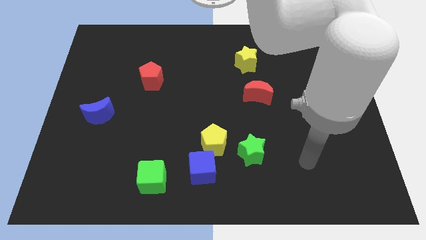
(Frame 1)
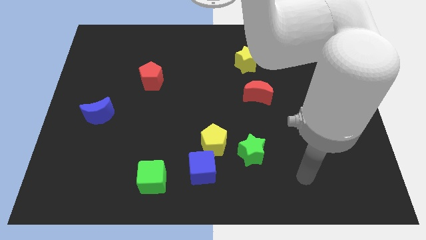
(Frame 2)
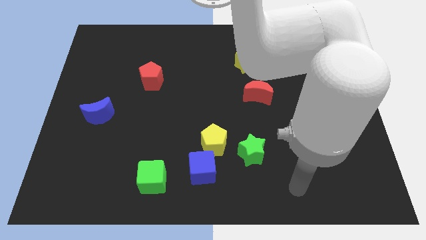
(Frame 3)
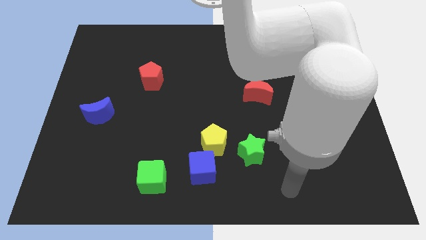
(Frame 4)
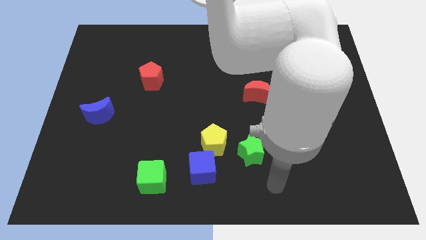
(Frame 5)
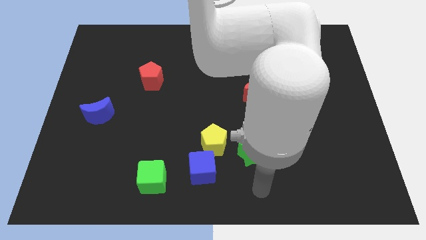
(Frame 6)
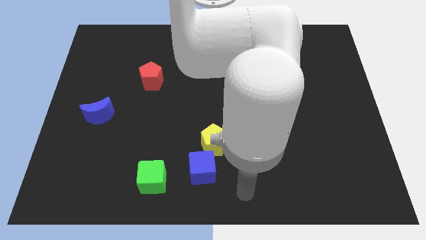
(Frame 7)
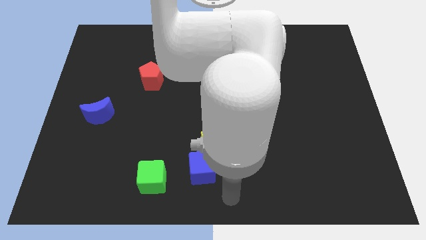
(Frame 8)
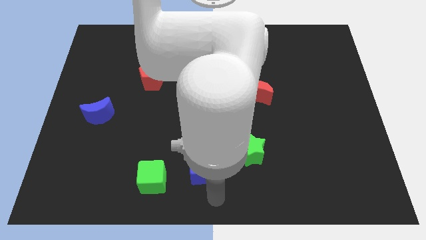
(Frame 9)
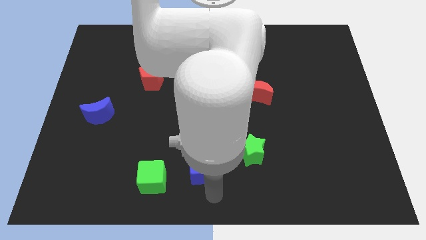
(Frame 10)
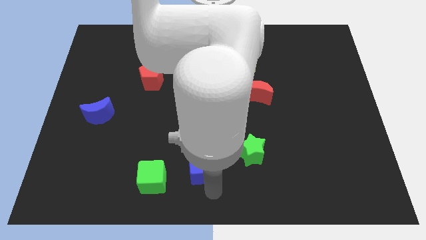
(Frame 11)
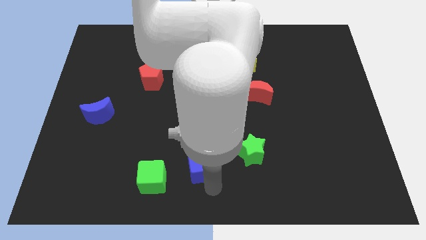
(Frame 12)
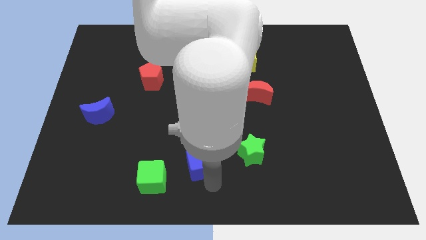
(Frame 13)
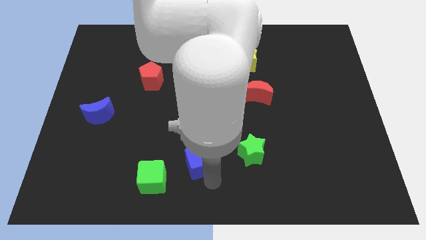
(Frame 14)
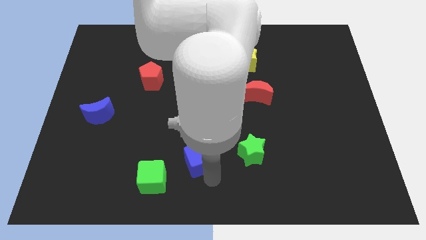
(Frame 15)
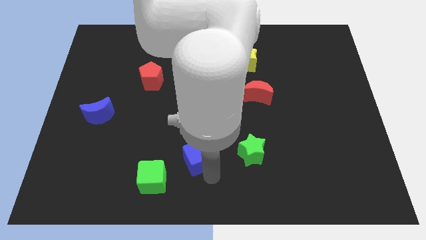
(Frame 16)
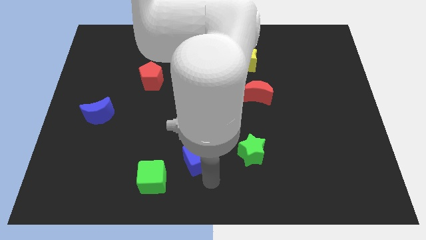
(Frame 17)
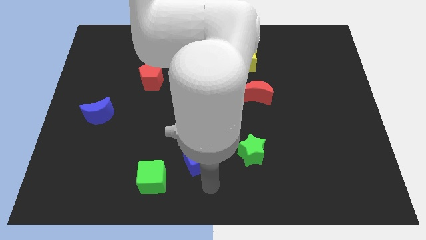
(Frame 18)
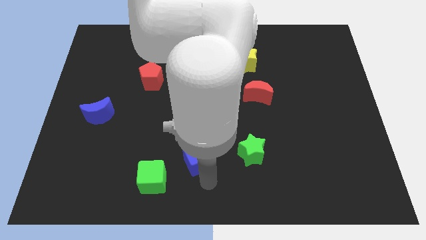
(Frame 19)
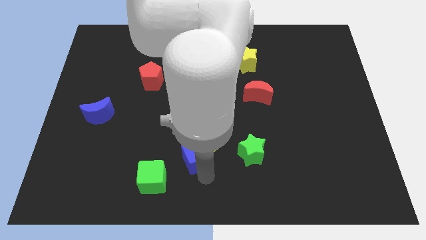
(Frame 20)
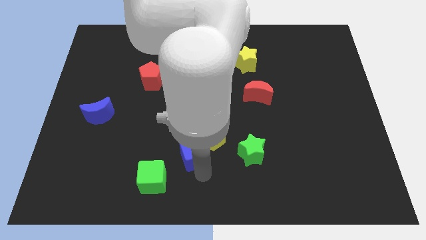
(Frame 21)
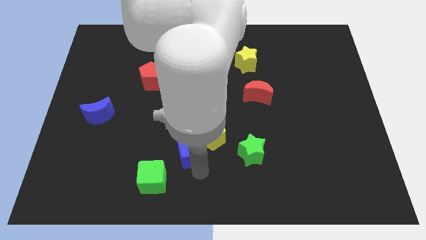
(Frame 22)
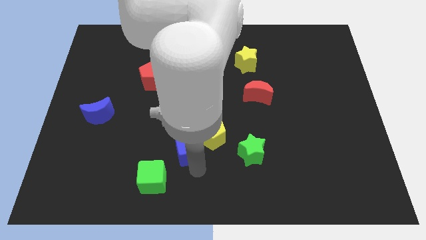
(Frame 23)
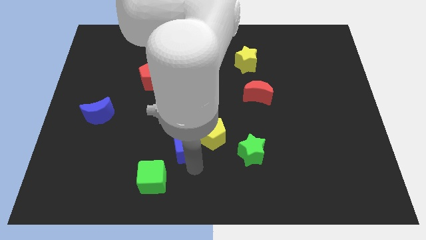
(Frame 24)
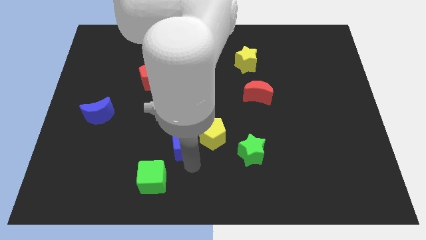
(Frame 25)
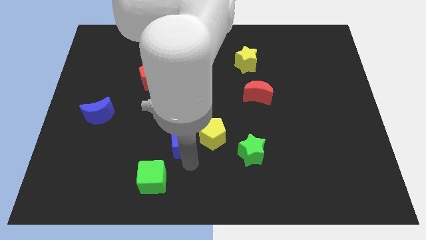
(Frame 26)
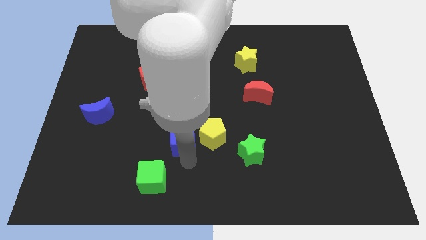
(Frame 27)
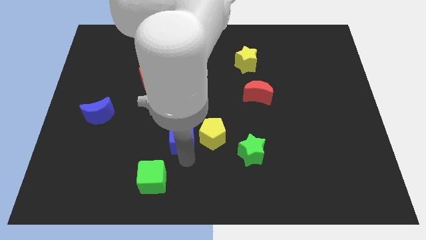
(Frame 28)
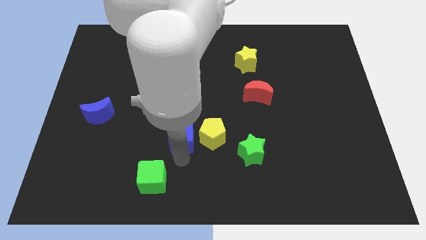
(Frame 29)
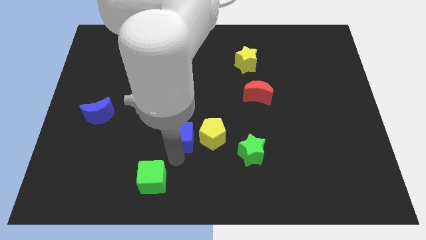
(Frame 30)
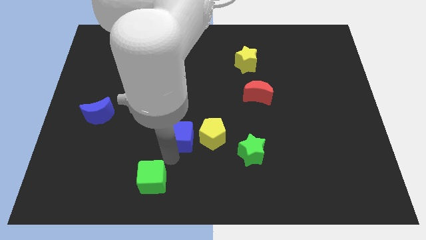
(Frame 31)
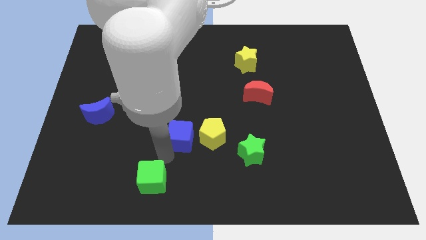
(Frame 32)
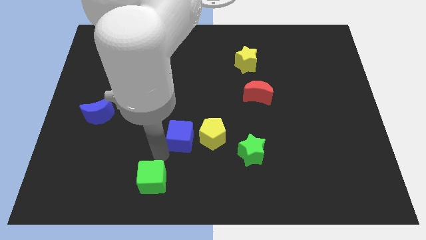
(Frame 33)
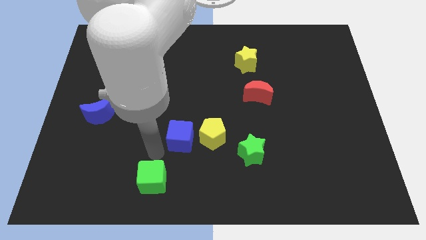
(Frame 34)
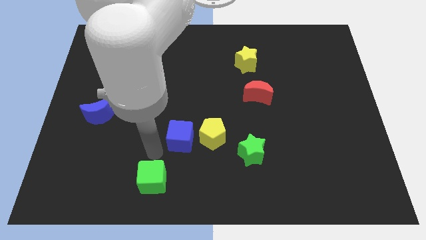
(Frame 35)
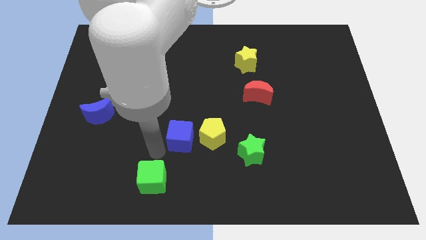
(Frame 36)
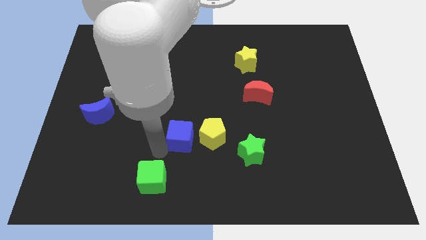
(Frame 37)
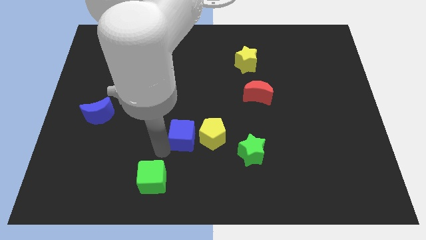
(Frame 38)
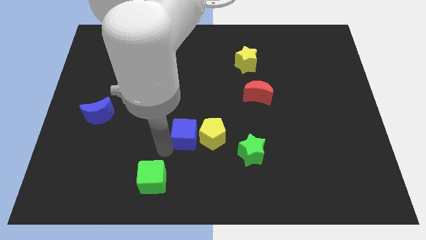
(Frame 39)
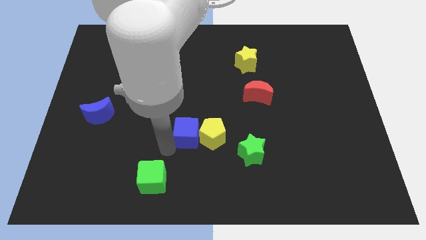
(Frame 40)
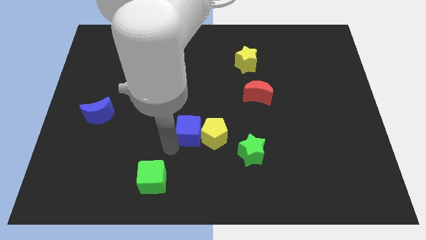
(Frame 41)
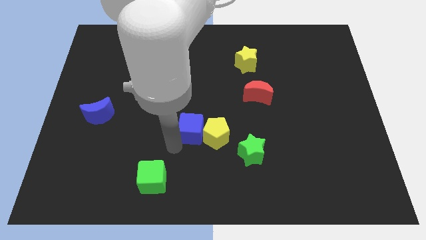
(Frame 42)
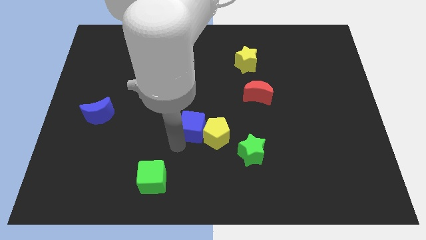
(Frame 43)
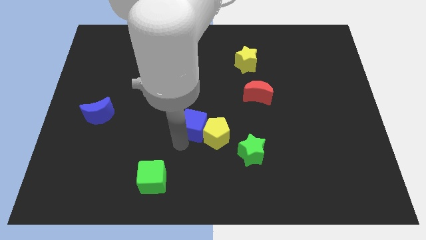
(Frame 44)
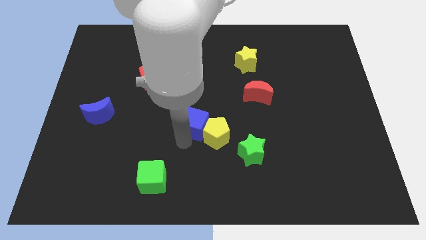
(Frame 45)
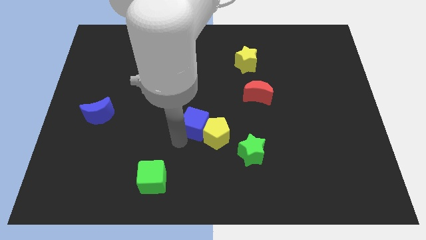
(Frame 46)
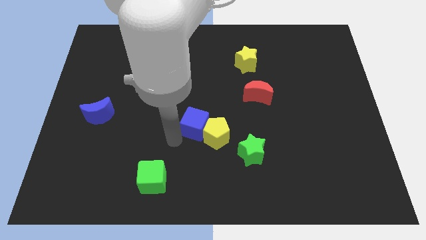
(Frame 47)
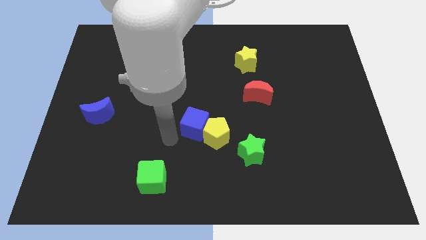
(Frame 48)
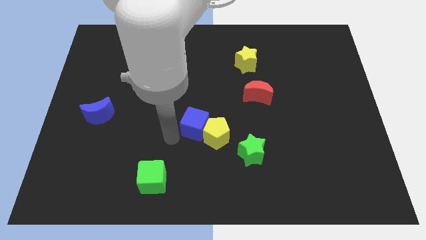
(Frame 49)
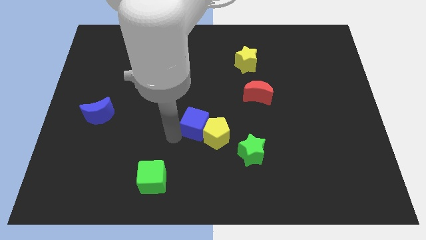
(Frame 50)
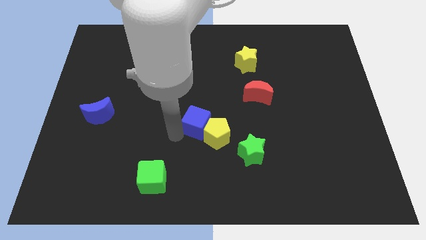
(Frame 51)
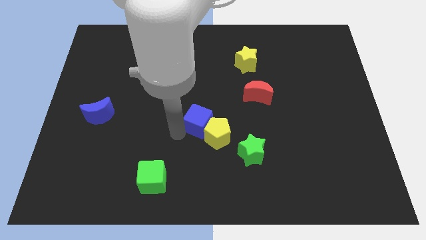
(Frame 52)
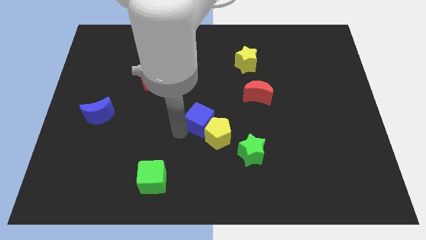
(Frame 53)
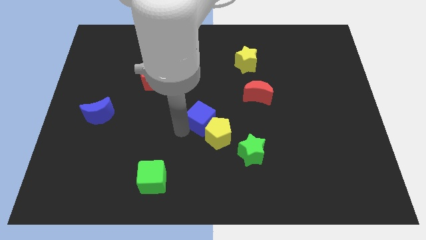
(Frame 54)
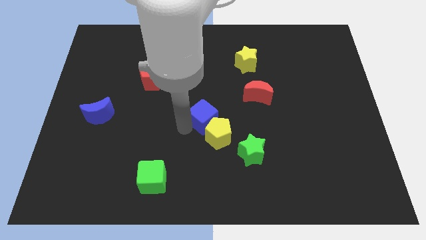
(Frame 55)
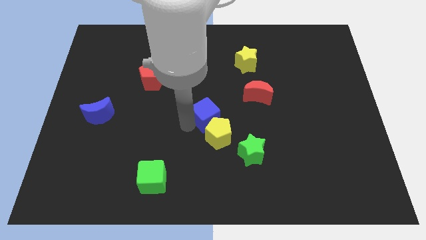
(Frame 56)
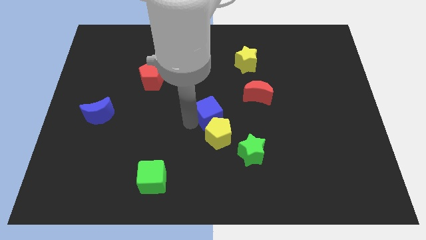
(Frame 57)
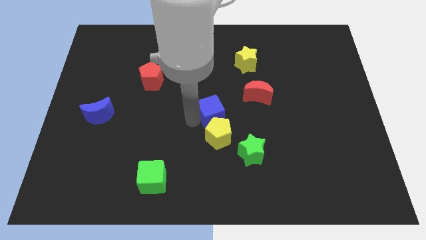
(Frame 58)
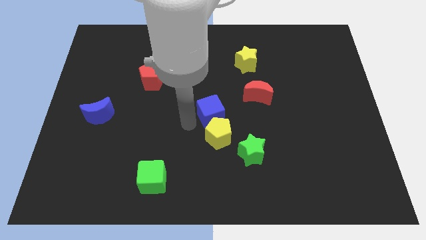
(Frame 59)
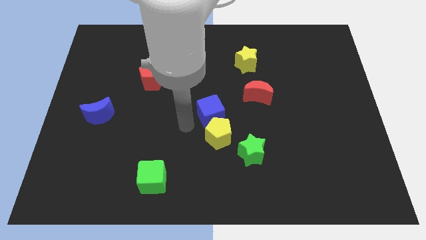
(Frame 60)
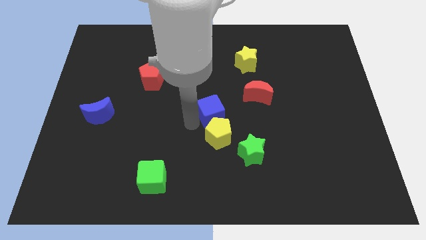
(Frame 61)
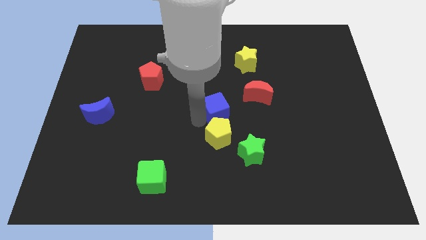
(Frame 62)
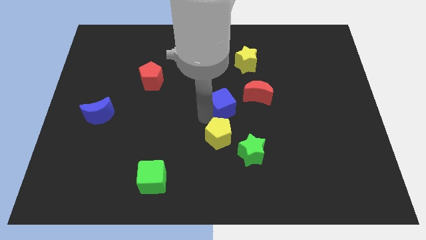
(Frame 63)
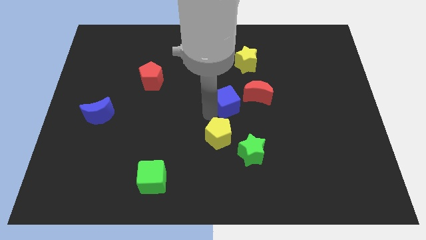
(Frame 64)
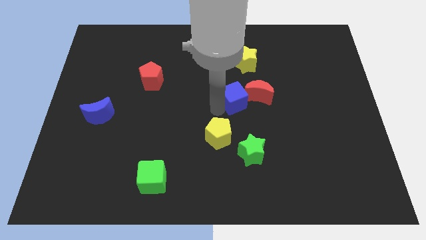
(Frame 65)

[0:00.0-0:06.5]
move the blue cube to the red moon

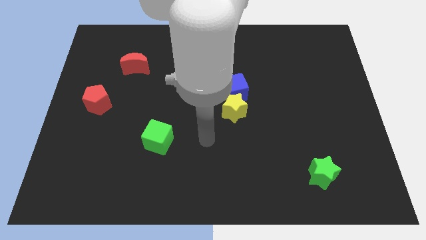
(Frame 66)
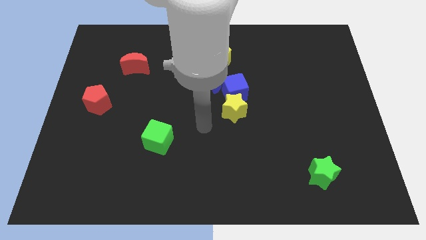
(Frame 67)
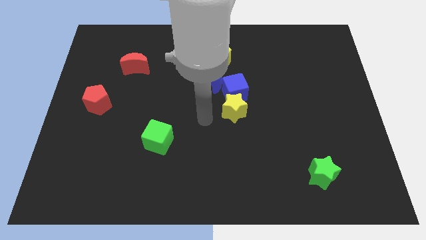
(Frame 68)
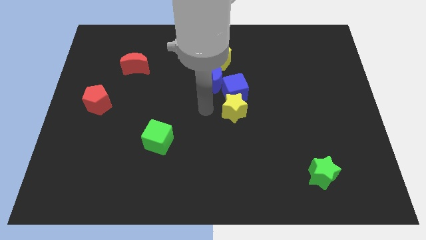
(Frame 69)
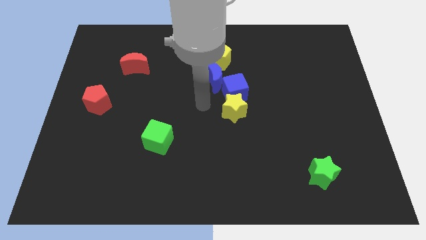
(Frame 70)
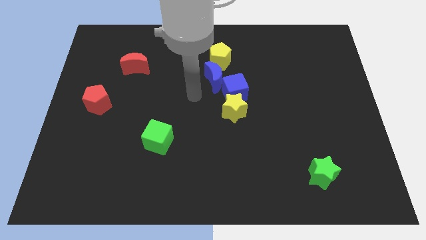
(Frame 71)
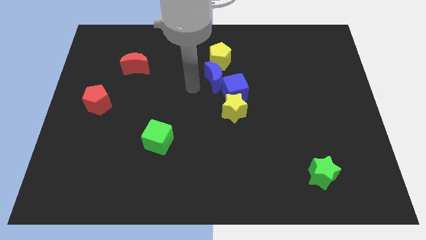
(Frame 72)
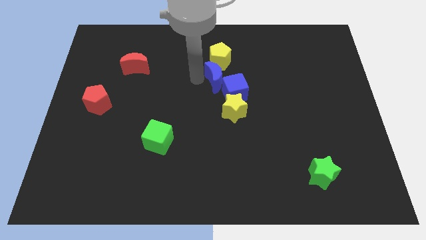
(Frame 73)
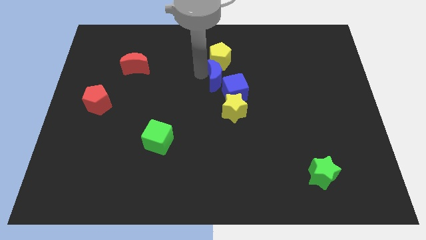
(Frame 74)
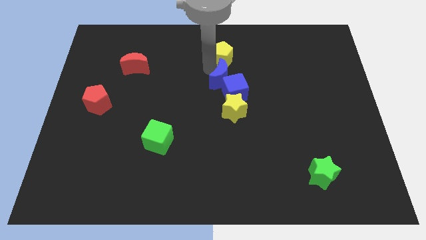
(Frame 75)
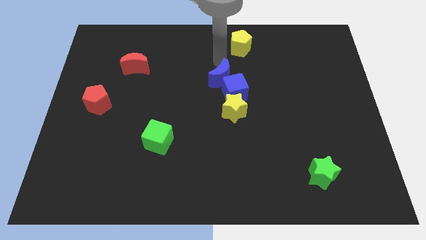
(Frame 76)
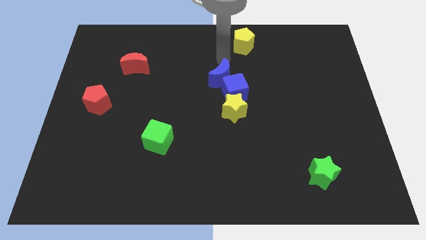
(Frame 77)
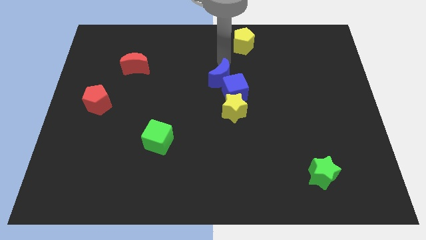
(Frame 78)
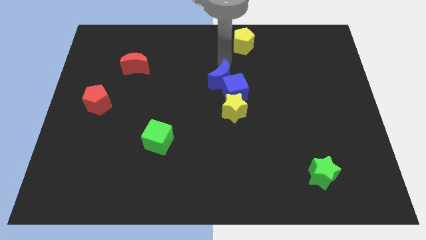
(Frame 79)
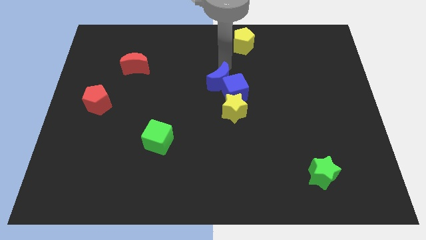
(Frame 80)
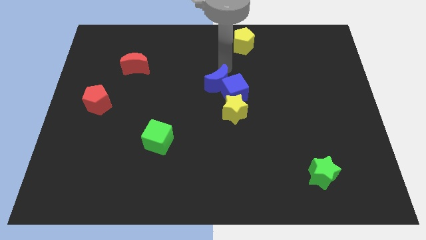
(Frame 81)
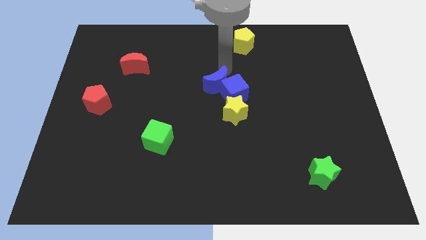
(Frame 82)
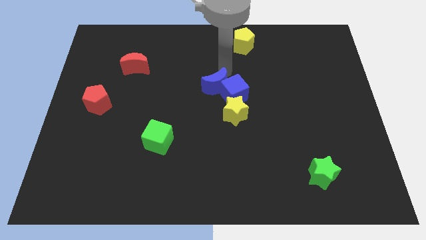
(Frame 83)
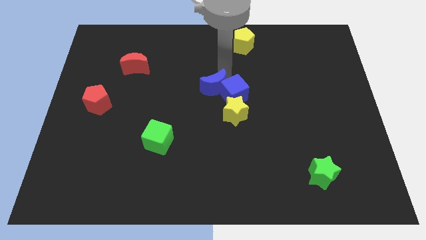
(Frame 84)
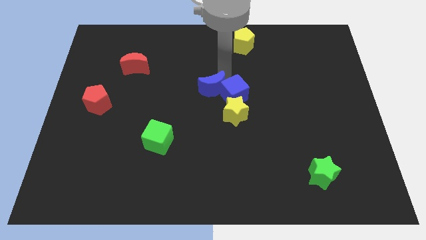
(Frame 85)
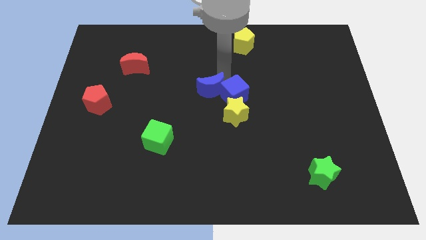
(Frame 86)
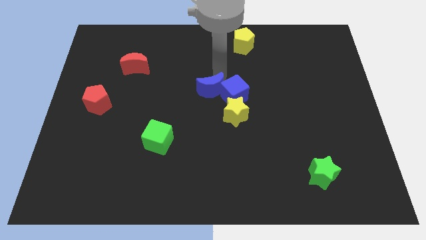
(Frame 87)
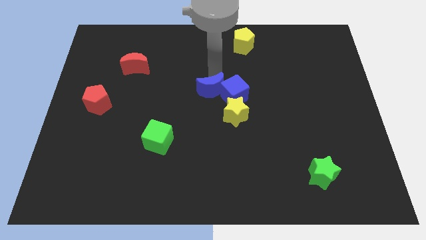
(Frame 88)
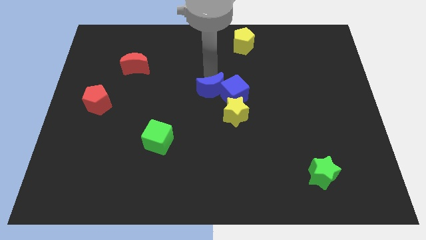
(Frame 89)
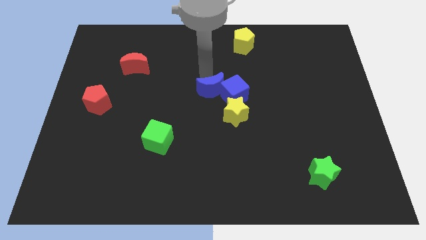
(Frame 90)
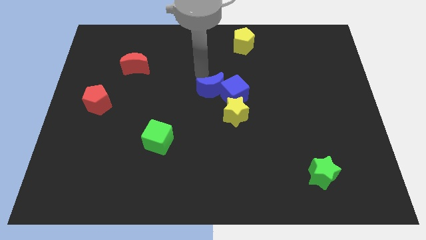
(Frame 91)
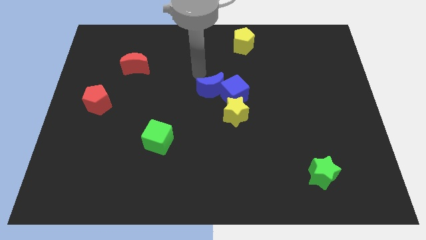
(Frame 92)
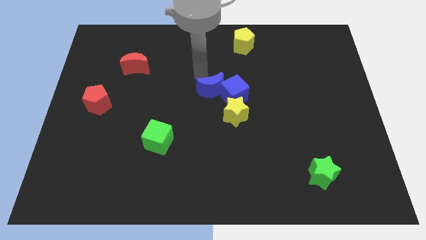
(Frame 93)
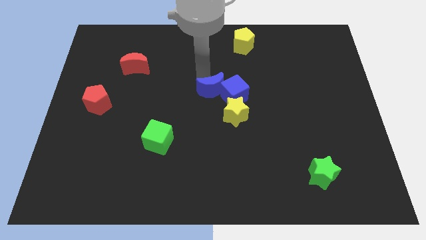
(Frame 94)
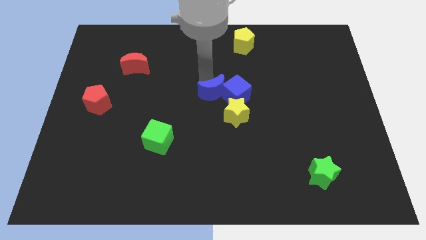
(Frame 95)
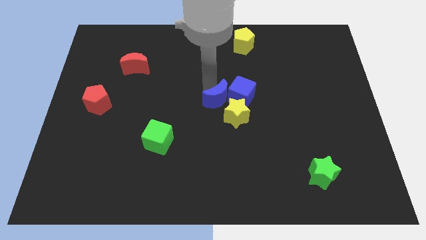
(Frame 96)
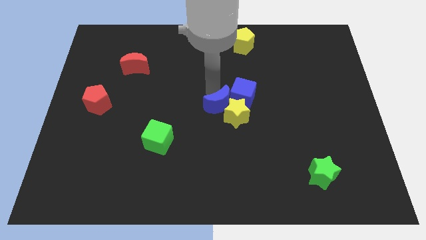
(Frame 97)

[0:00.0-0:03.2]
move the blue moon to the yellow star
